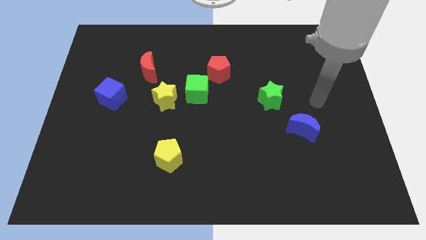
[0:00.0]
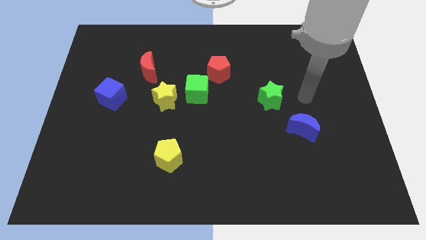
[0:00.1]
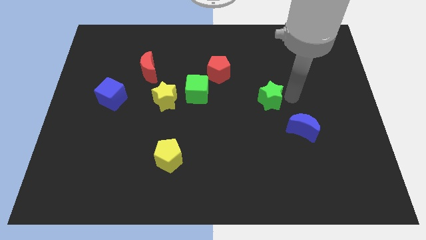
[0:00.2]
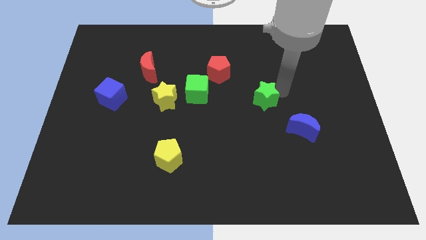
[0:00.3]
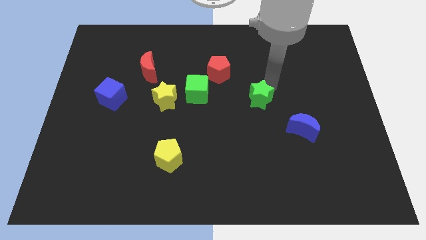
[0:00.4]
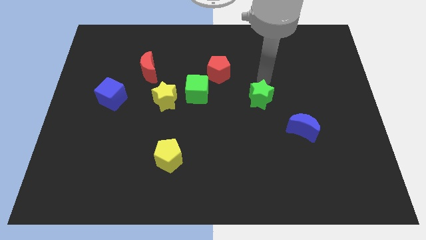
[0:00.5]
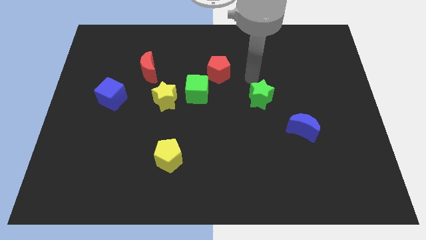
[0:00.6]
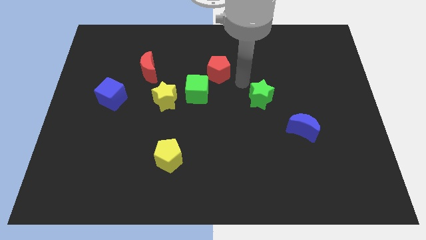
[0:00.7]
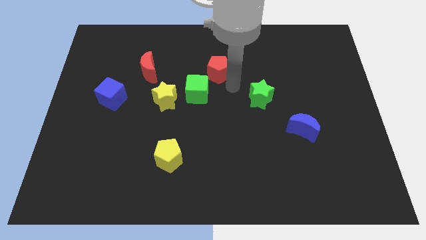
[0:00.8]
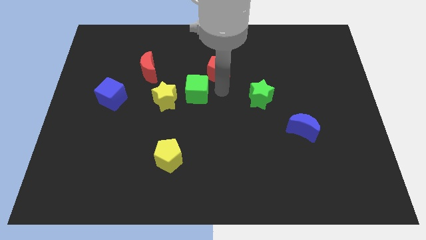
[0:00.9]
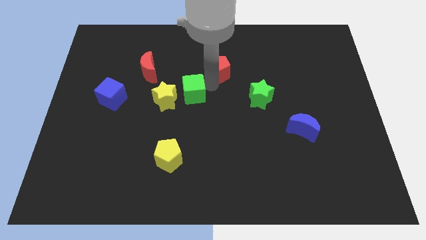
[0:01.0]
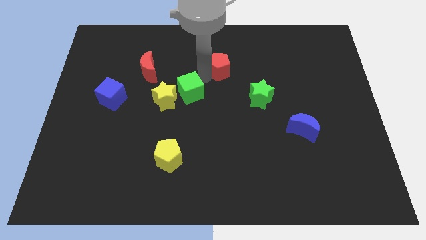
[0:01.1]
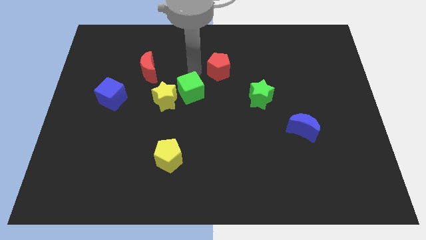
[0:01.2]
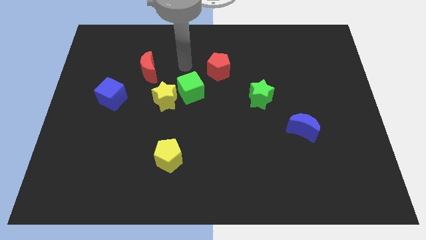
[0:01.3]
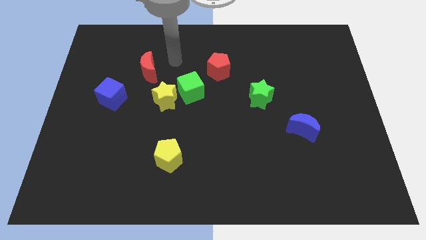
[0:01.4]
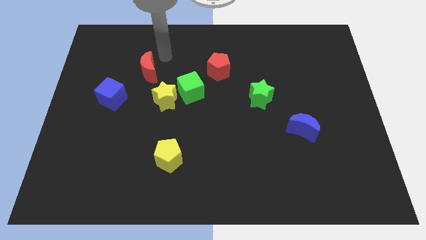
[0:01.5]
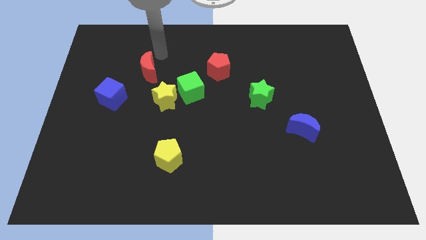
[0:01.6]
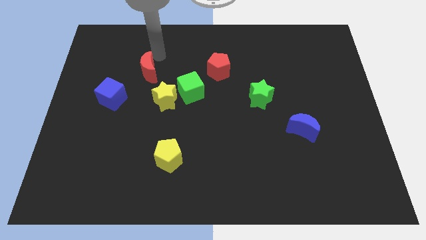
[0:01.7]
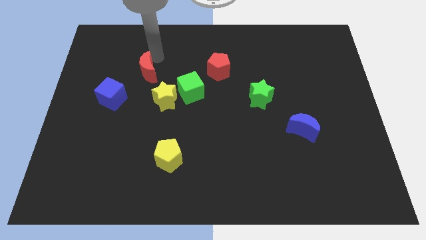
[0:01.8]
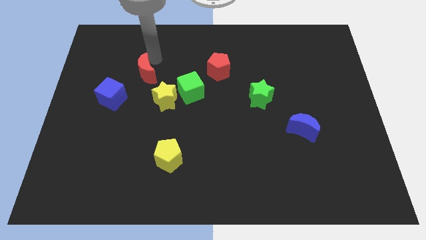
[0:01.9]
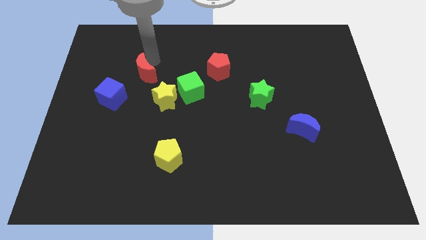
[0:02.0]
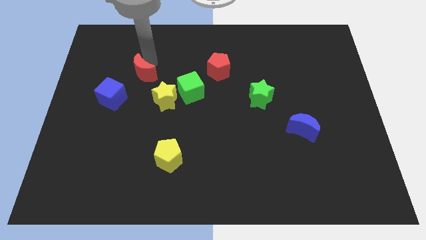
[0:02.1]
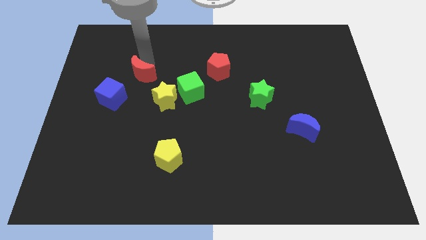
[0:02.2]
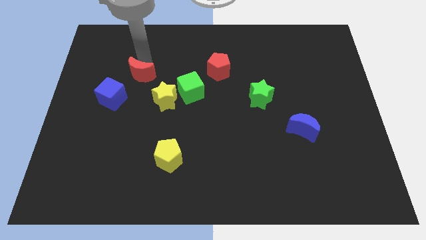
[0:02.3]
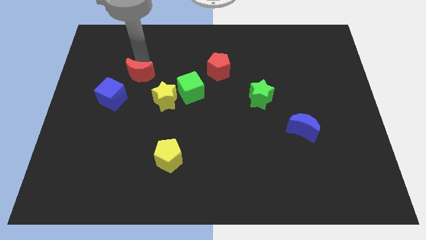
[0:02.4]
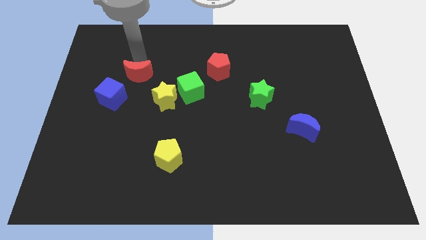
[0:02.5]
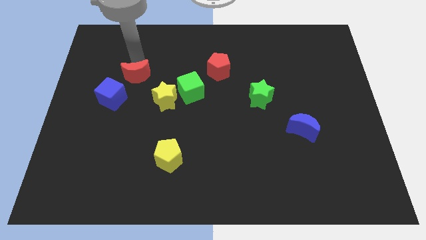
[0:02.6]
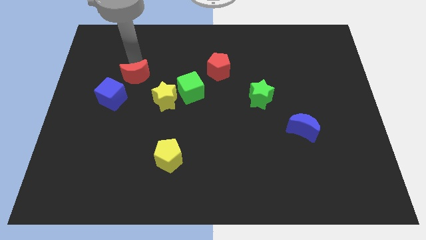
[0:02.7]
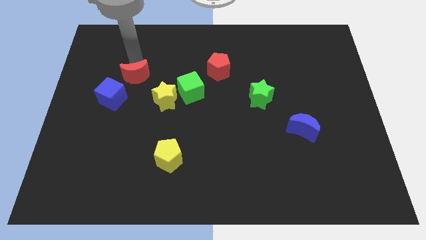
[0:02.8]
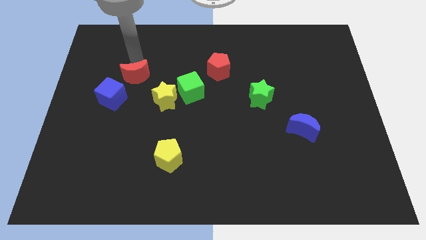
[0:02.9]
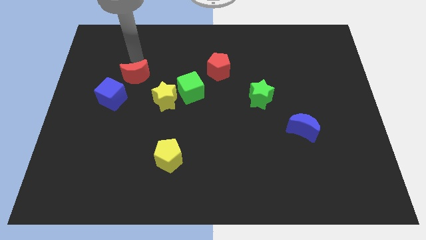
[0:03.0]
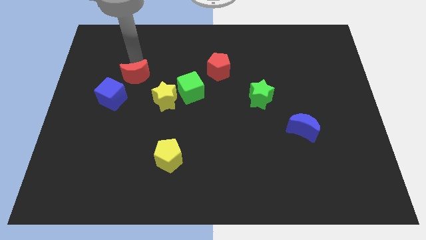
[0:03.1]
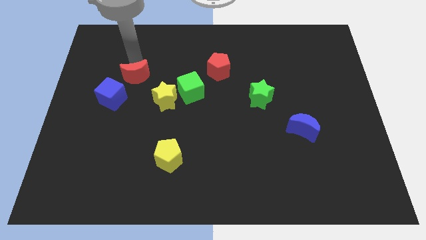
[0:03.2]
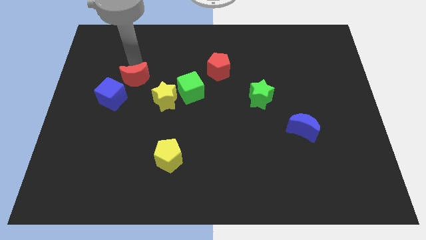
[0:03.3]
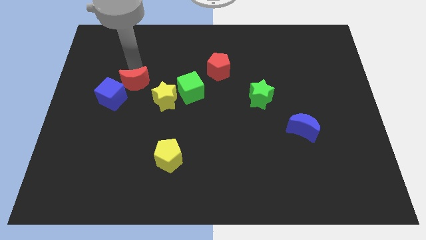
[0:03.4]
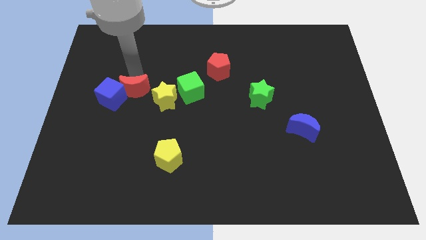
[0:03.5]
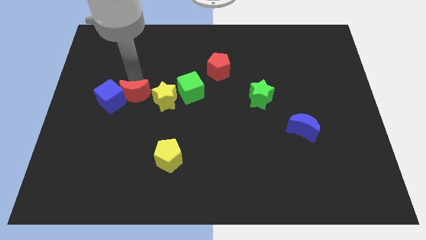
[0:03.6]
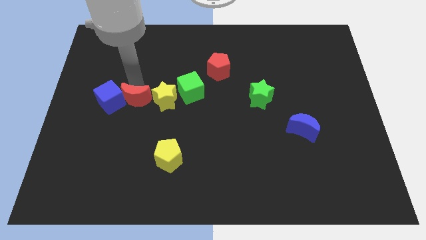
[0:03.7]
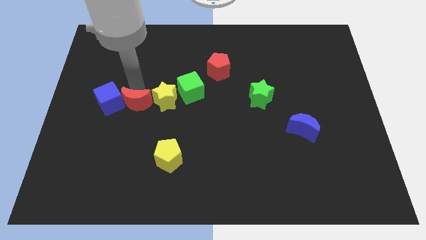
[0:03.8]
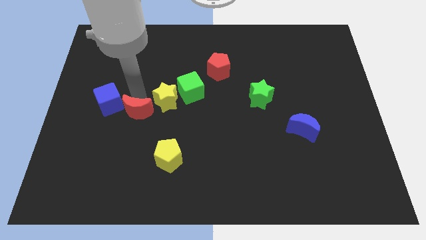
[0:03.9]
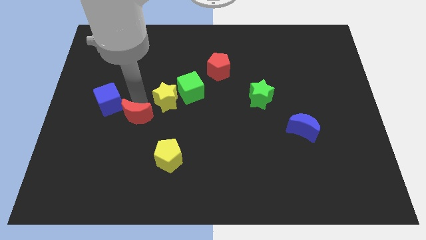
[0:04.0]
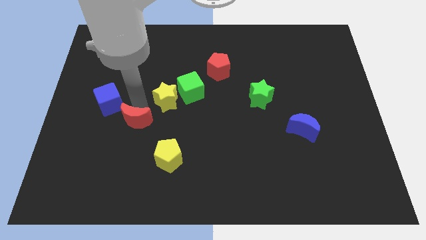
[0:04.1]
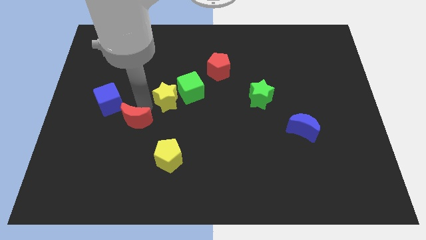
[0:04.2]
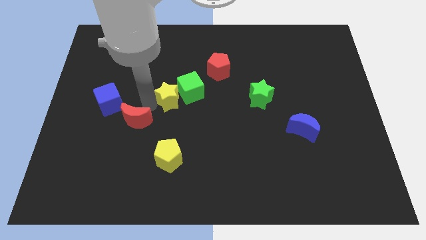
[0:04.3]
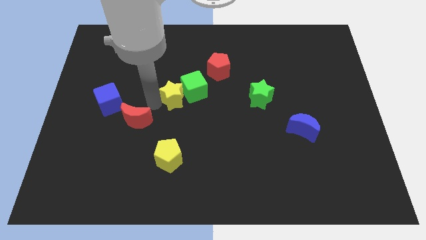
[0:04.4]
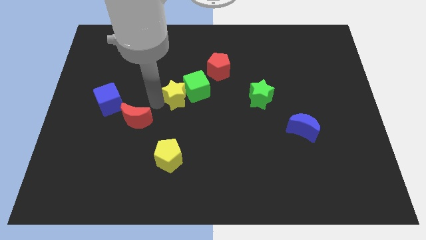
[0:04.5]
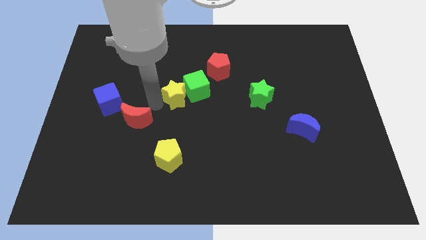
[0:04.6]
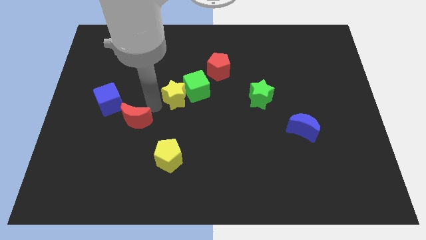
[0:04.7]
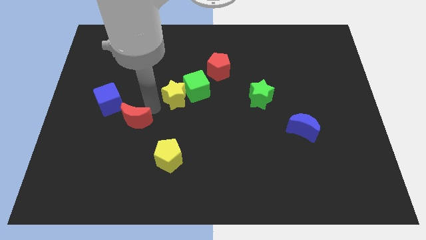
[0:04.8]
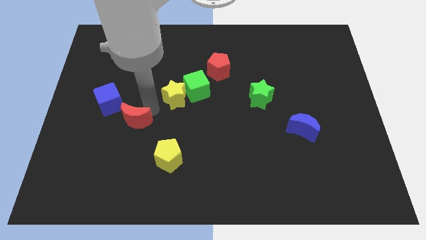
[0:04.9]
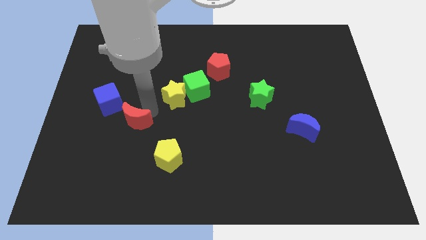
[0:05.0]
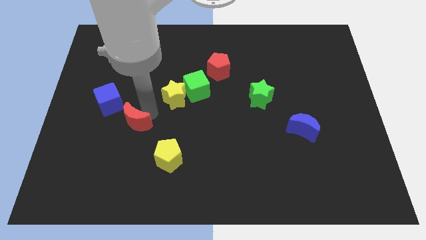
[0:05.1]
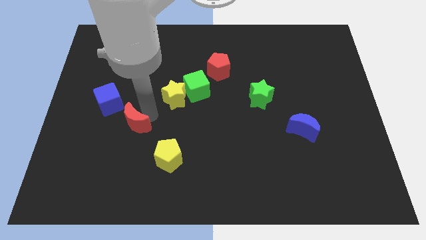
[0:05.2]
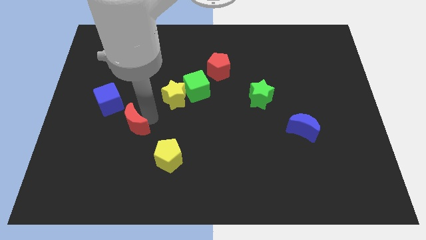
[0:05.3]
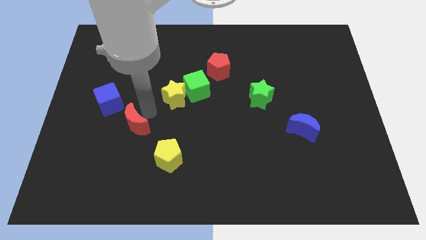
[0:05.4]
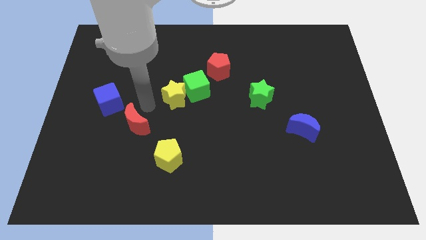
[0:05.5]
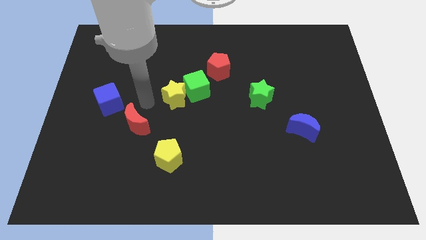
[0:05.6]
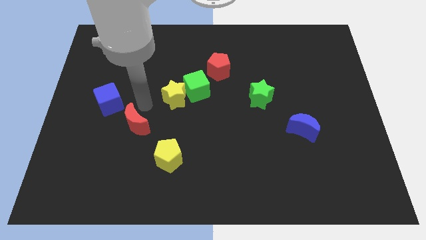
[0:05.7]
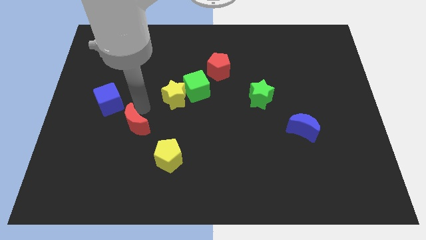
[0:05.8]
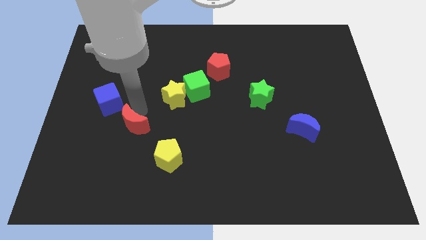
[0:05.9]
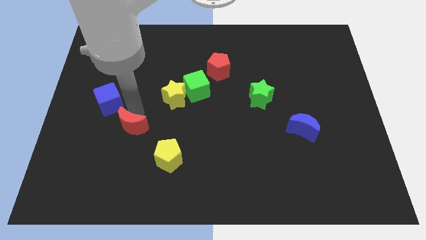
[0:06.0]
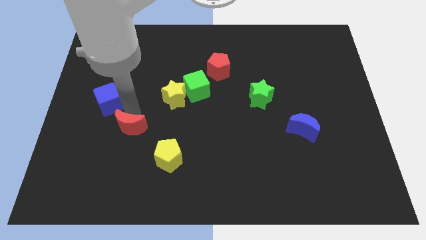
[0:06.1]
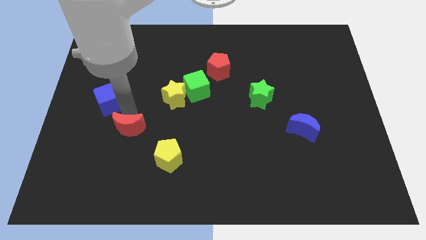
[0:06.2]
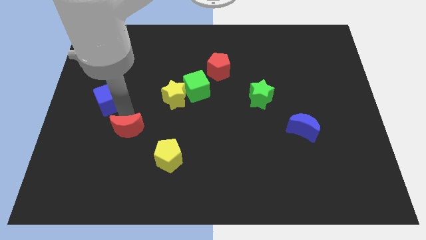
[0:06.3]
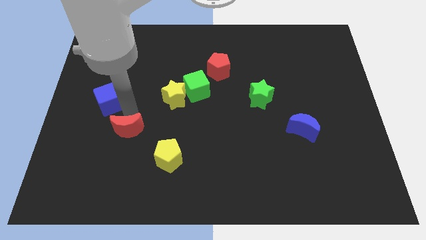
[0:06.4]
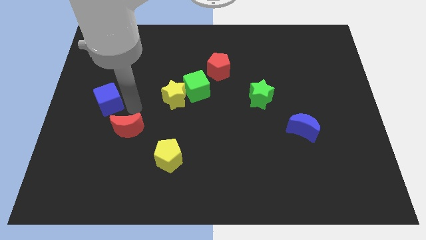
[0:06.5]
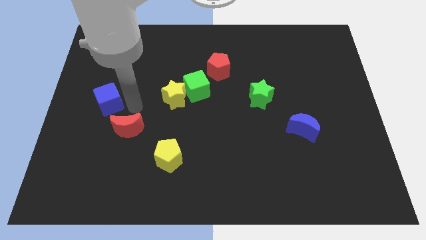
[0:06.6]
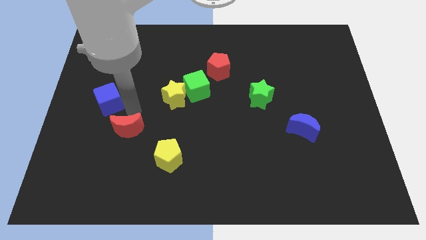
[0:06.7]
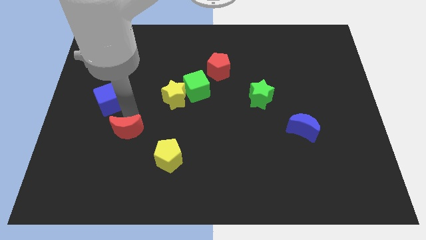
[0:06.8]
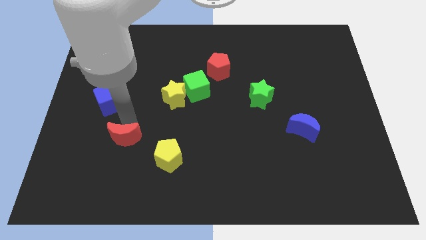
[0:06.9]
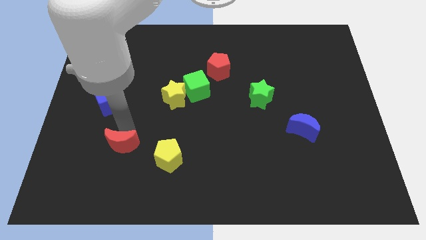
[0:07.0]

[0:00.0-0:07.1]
push the red moon just left of the yellow pentagon
